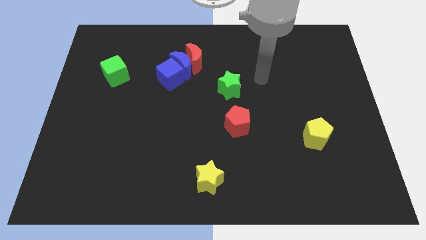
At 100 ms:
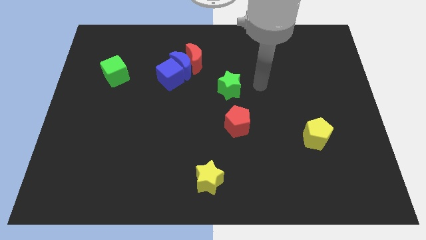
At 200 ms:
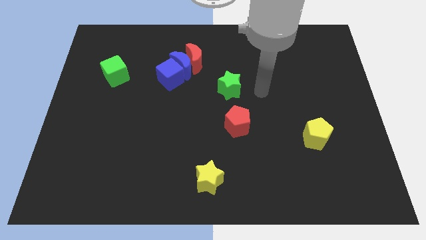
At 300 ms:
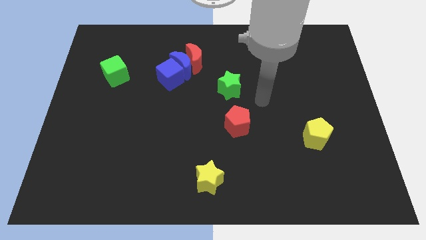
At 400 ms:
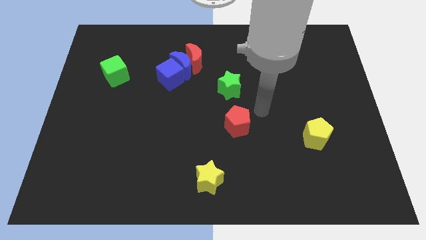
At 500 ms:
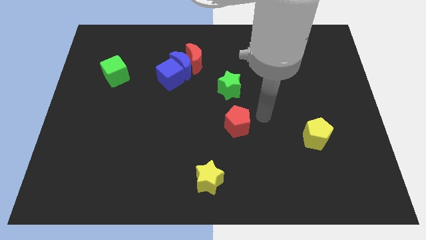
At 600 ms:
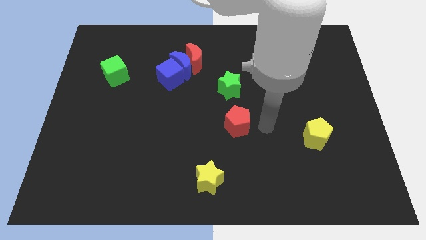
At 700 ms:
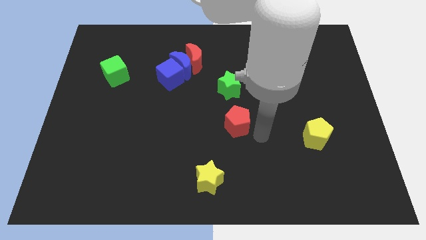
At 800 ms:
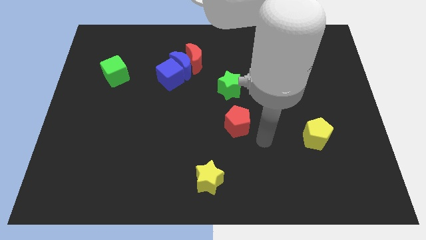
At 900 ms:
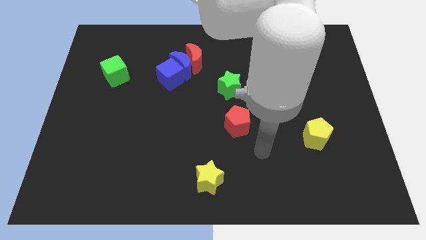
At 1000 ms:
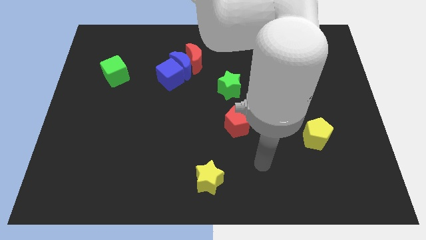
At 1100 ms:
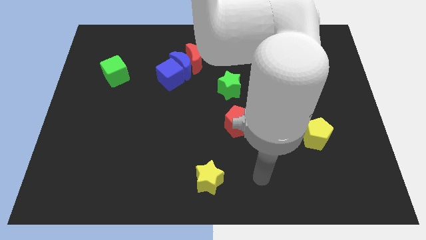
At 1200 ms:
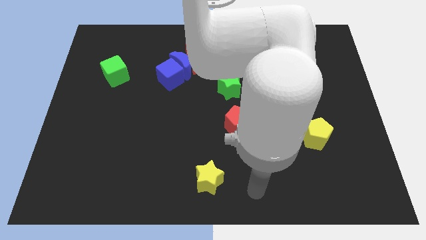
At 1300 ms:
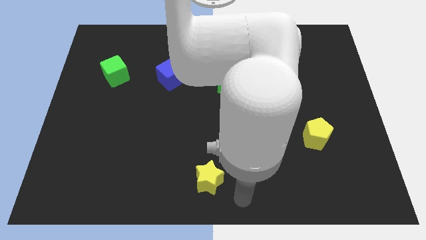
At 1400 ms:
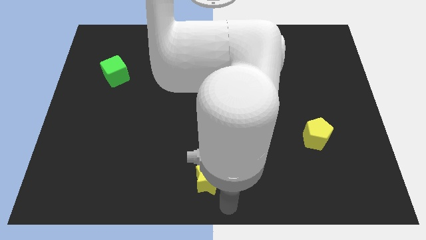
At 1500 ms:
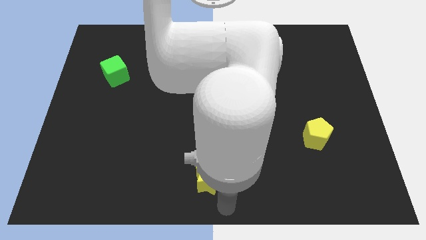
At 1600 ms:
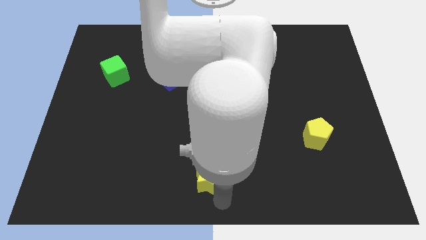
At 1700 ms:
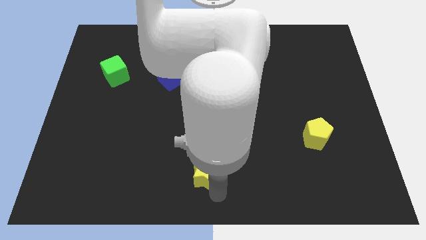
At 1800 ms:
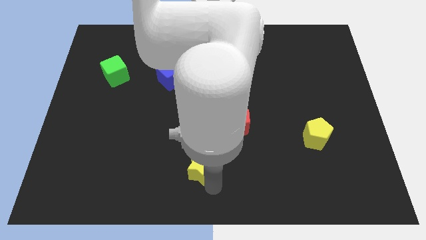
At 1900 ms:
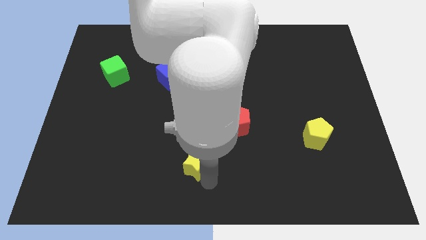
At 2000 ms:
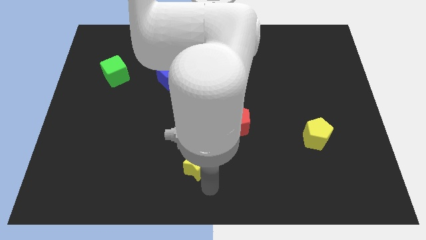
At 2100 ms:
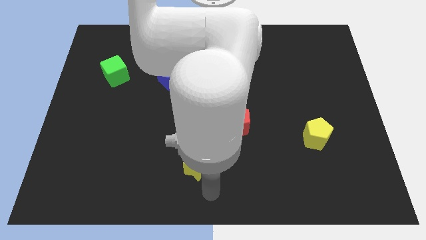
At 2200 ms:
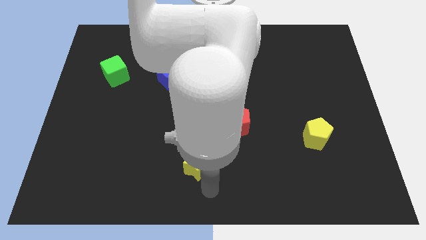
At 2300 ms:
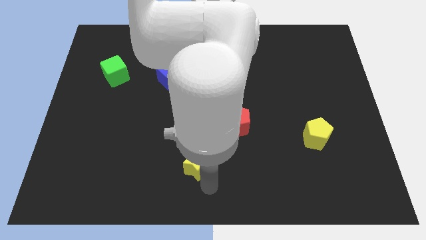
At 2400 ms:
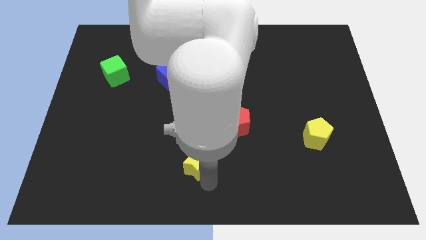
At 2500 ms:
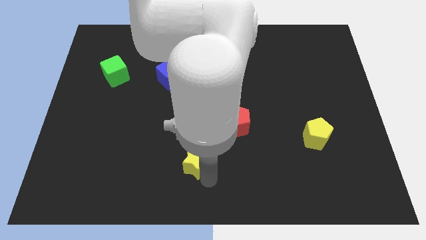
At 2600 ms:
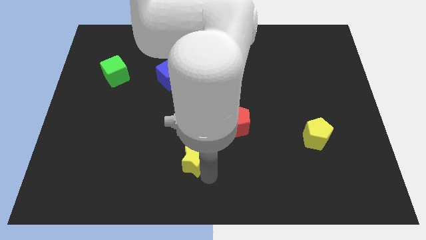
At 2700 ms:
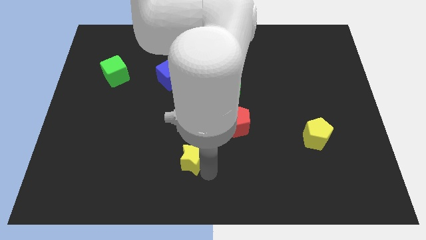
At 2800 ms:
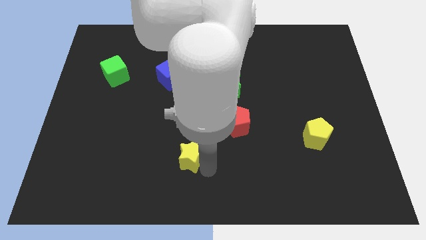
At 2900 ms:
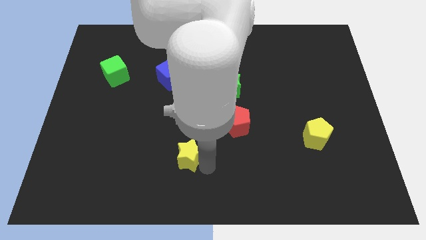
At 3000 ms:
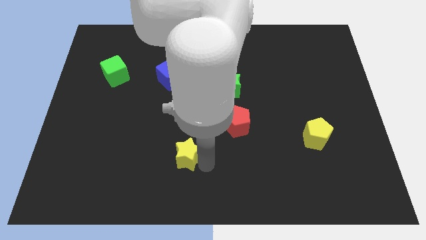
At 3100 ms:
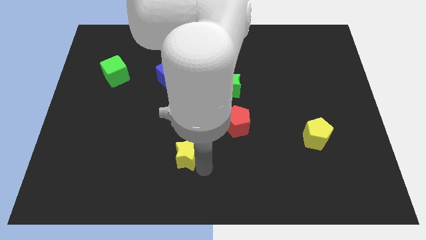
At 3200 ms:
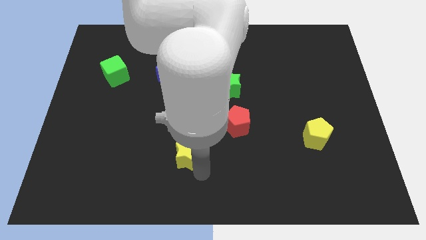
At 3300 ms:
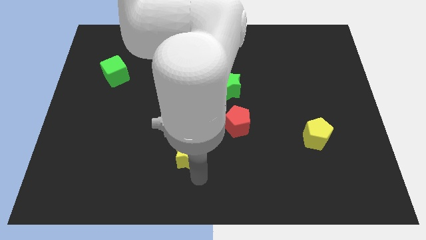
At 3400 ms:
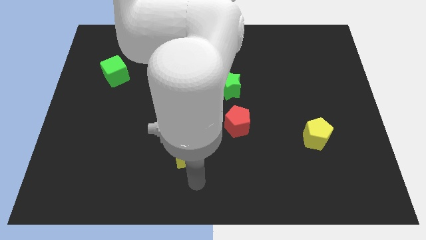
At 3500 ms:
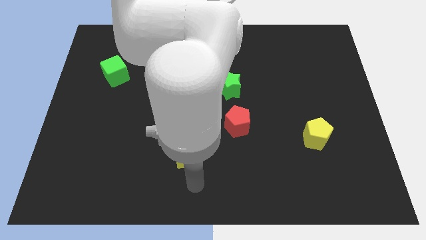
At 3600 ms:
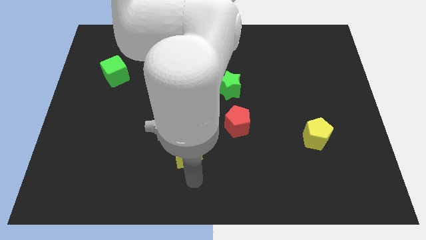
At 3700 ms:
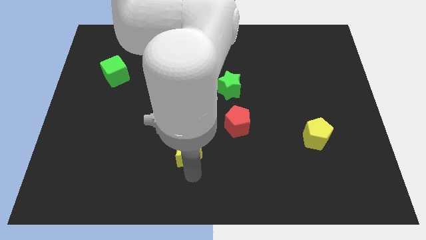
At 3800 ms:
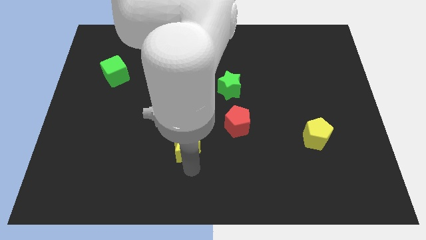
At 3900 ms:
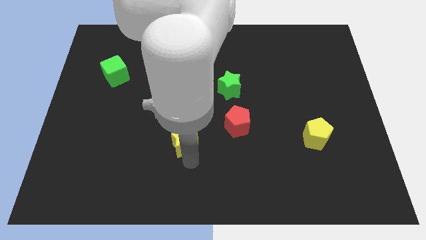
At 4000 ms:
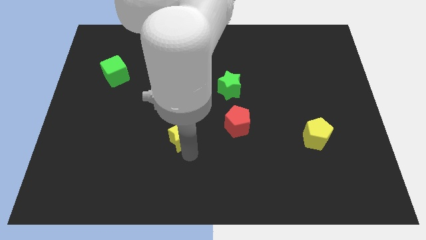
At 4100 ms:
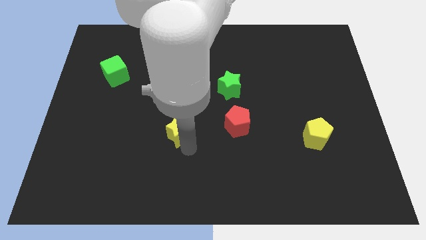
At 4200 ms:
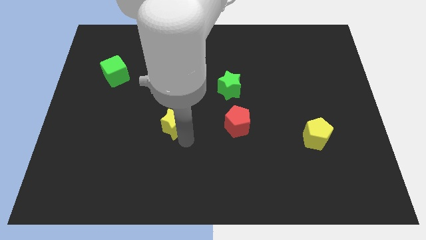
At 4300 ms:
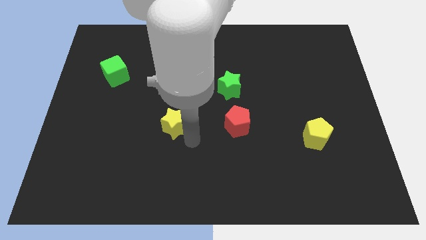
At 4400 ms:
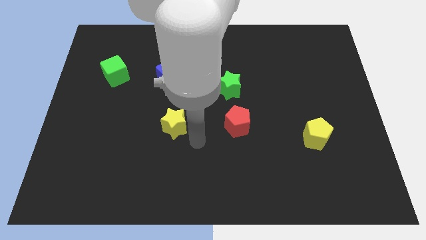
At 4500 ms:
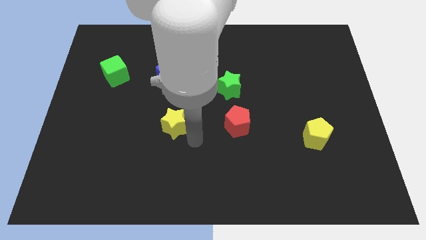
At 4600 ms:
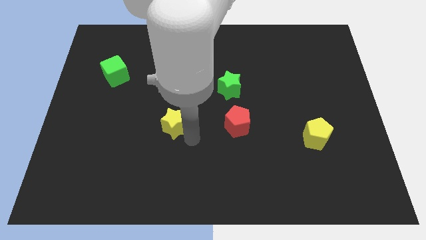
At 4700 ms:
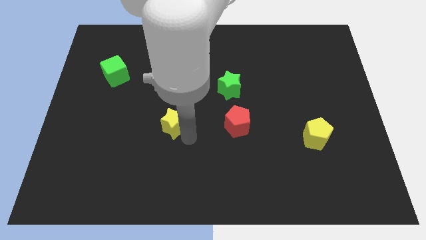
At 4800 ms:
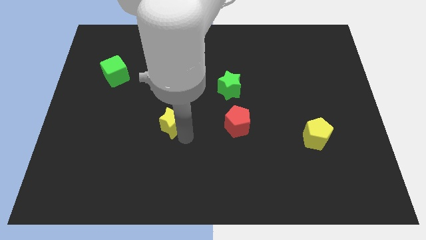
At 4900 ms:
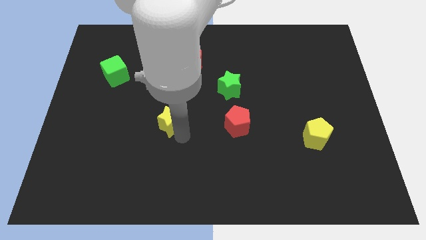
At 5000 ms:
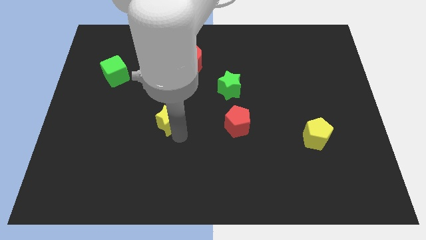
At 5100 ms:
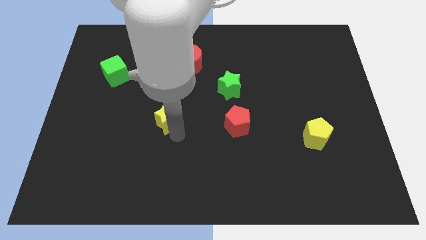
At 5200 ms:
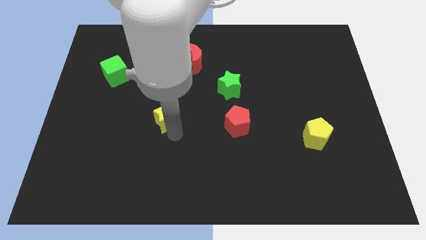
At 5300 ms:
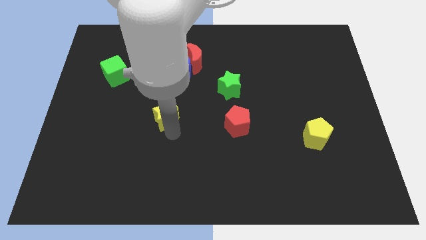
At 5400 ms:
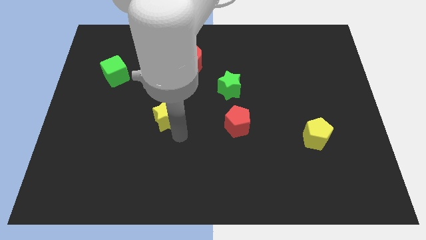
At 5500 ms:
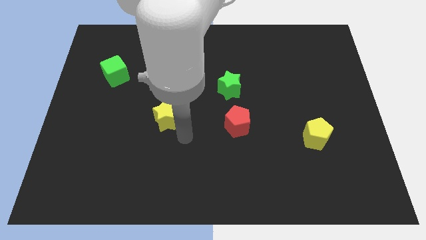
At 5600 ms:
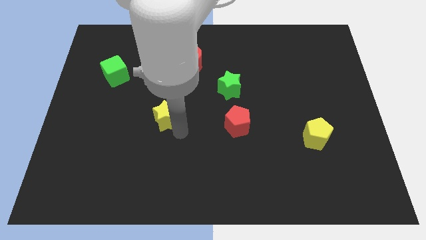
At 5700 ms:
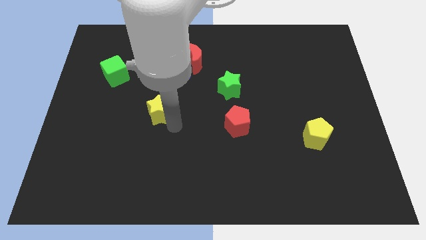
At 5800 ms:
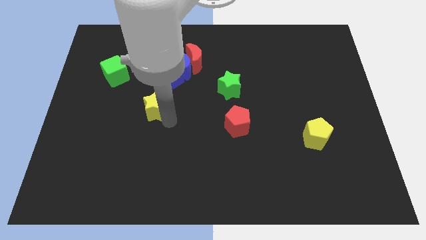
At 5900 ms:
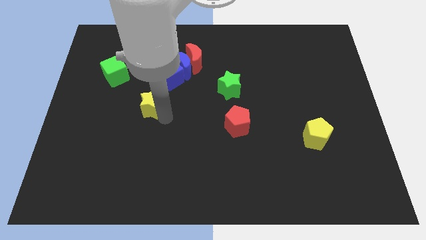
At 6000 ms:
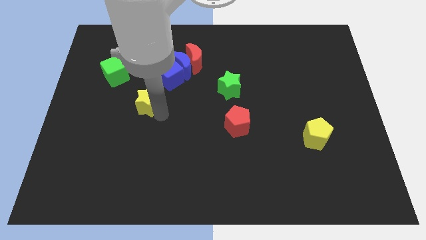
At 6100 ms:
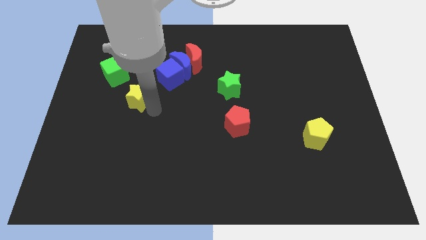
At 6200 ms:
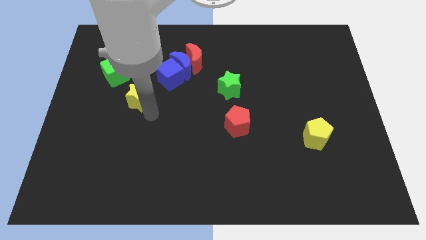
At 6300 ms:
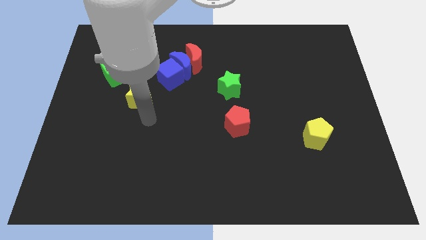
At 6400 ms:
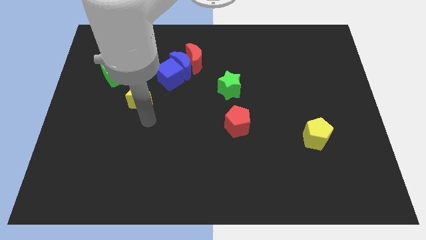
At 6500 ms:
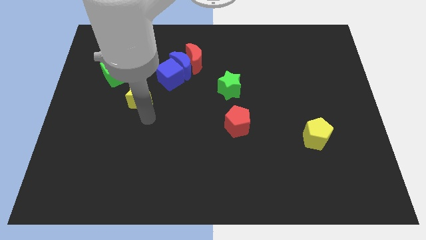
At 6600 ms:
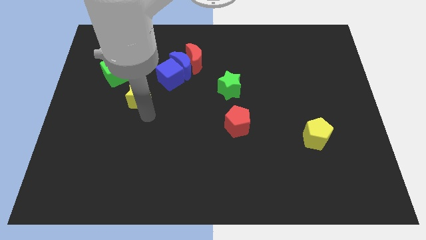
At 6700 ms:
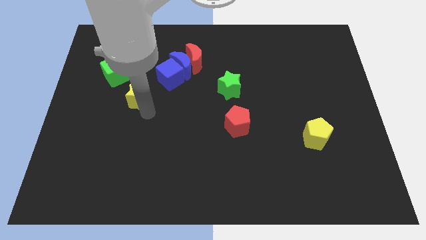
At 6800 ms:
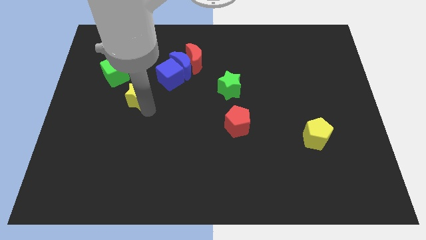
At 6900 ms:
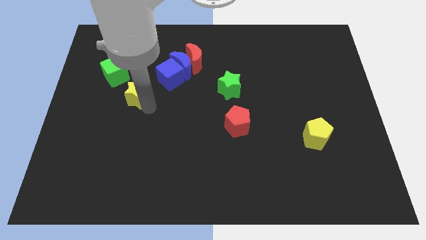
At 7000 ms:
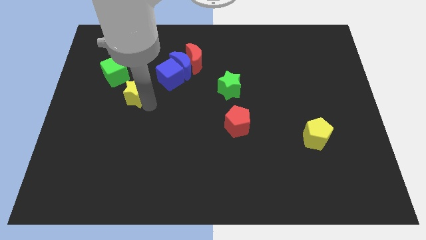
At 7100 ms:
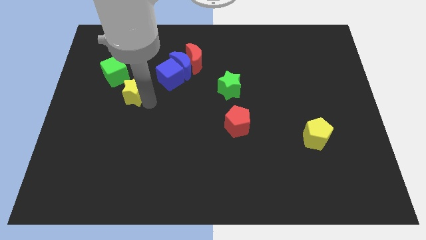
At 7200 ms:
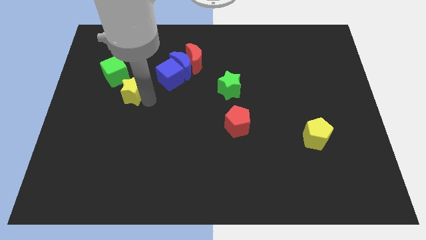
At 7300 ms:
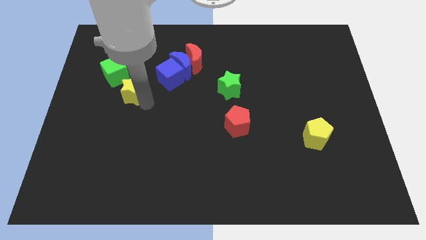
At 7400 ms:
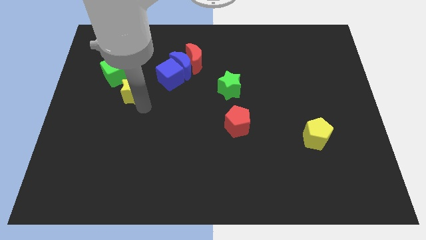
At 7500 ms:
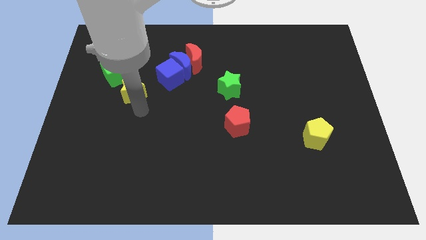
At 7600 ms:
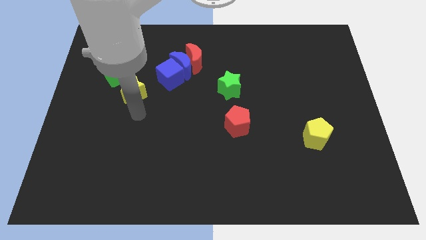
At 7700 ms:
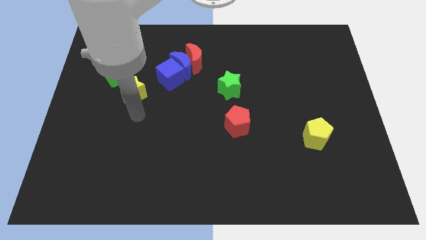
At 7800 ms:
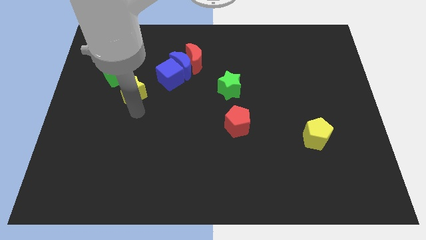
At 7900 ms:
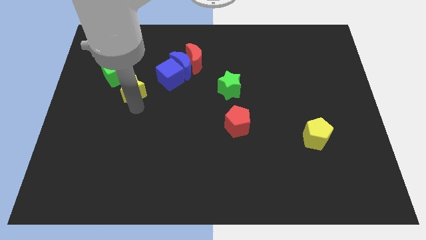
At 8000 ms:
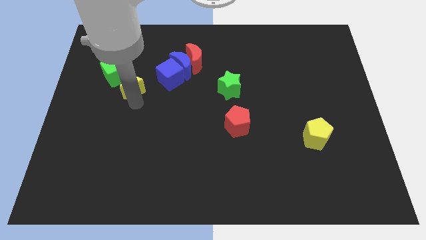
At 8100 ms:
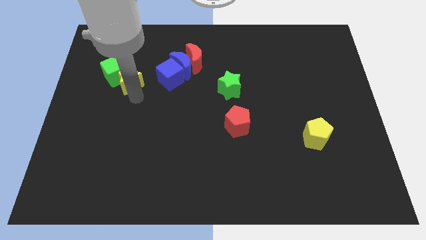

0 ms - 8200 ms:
move the yellow star towards the green cube
